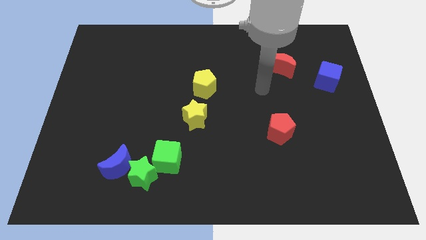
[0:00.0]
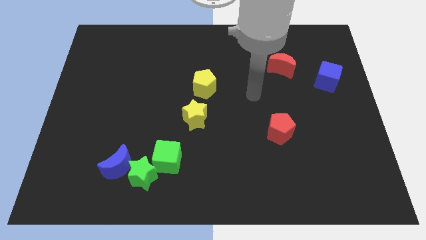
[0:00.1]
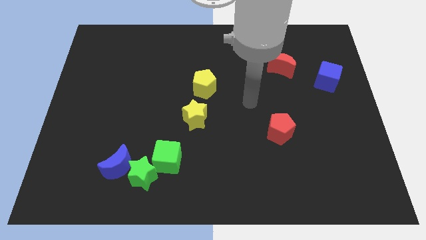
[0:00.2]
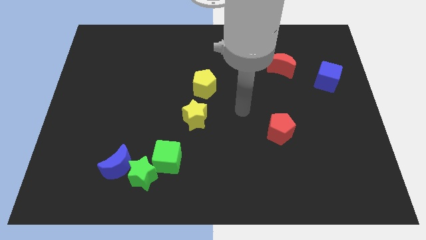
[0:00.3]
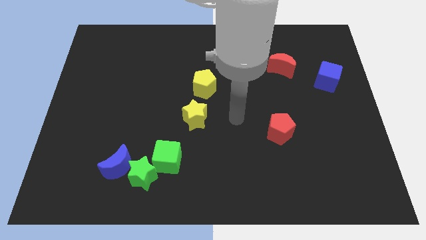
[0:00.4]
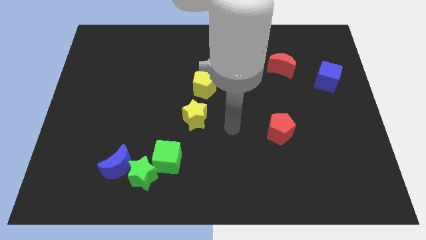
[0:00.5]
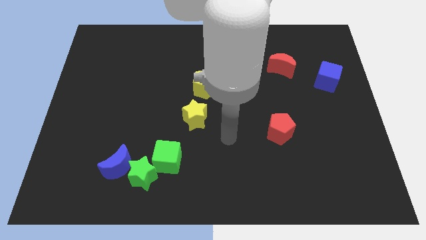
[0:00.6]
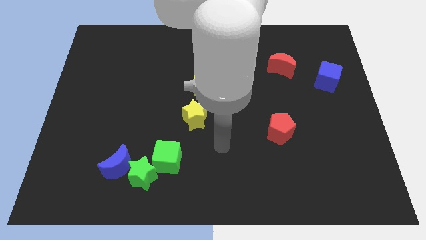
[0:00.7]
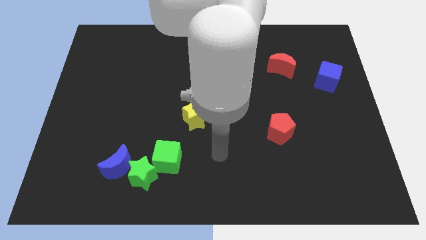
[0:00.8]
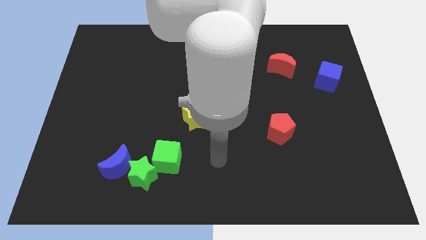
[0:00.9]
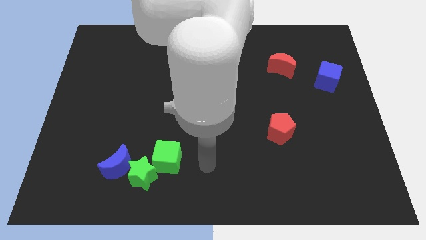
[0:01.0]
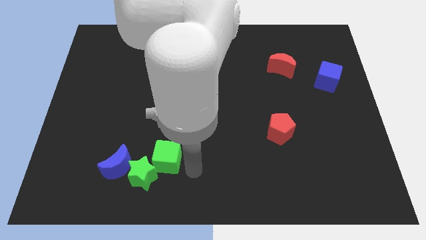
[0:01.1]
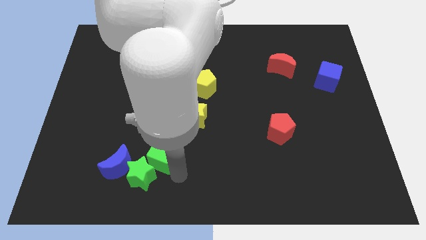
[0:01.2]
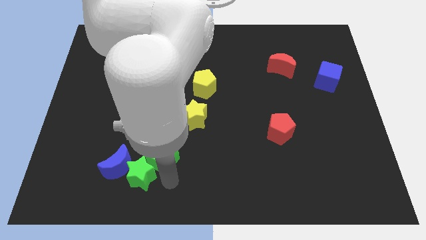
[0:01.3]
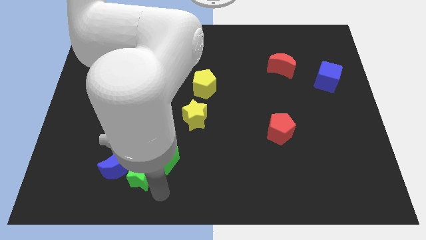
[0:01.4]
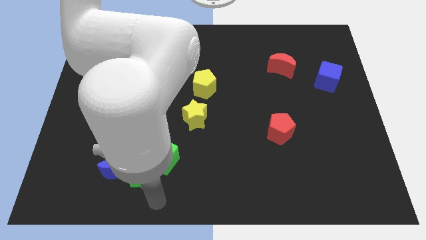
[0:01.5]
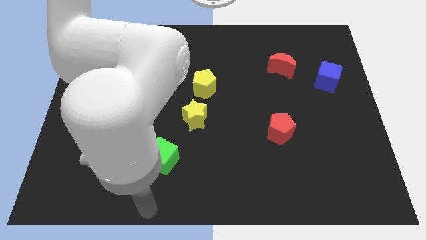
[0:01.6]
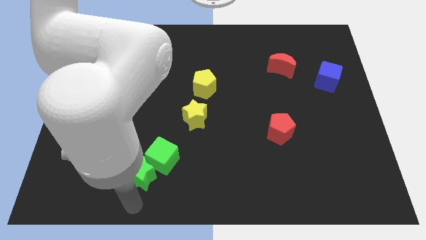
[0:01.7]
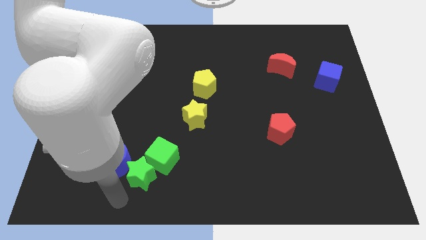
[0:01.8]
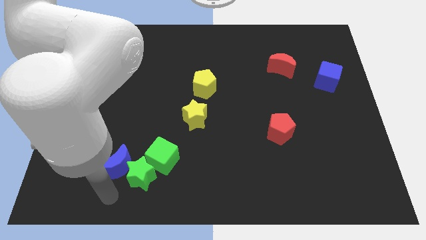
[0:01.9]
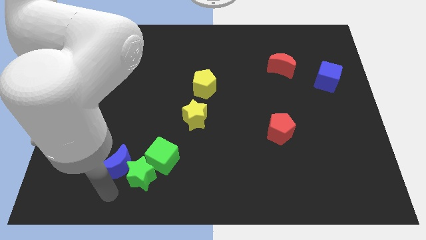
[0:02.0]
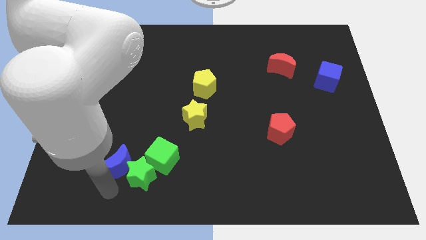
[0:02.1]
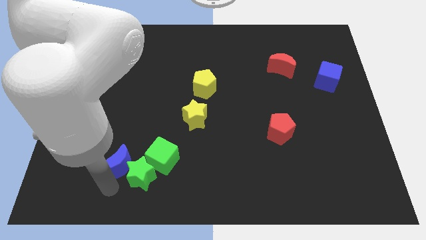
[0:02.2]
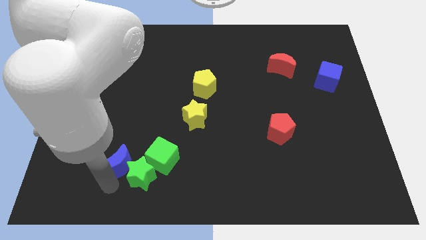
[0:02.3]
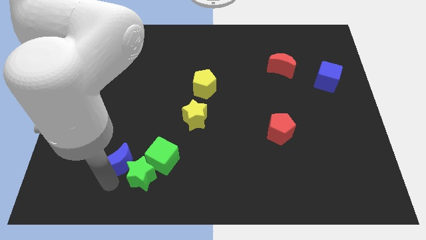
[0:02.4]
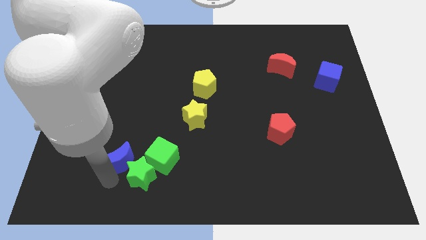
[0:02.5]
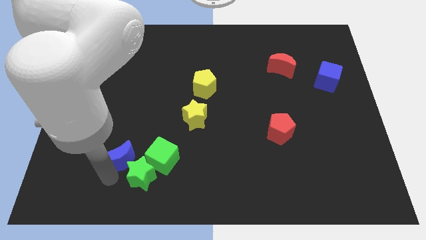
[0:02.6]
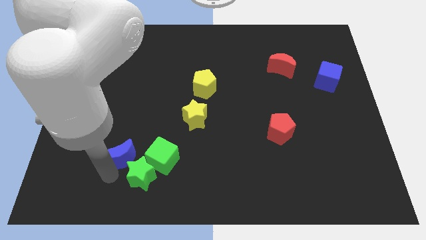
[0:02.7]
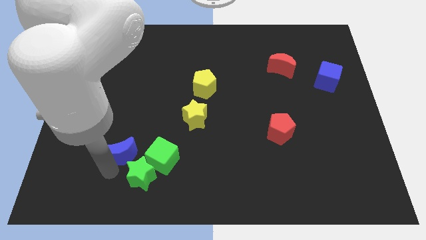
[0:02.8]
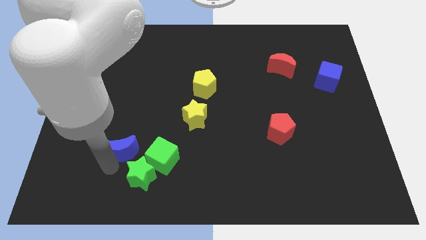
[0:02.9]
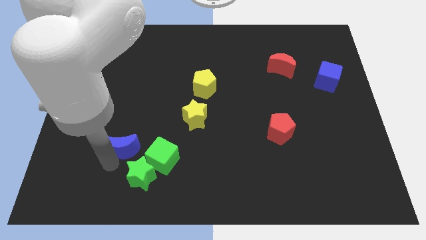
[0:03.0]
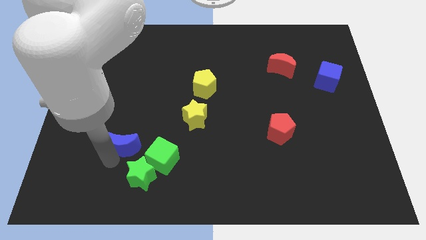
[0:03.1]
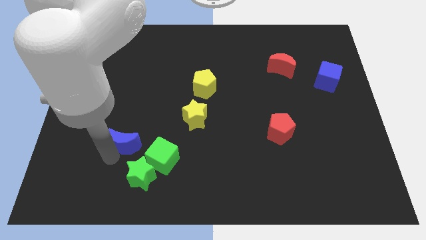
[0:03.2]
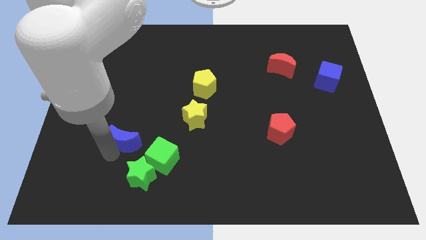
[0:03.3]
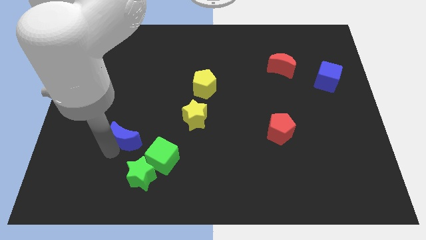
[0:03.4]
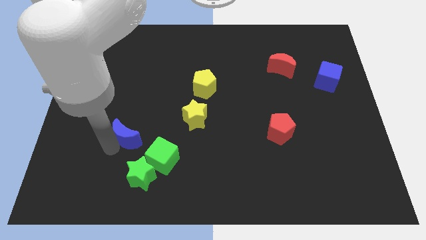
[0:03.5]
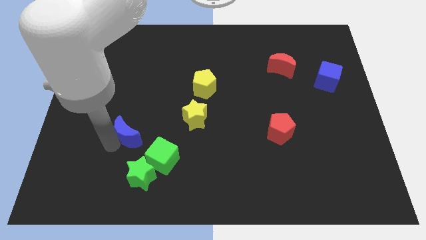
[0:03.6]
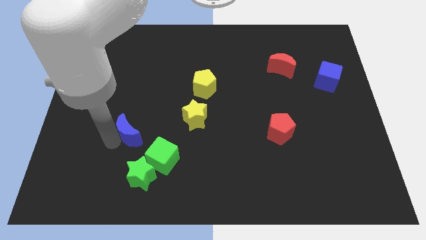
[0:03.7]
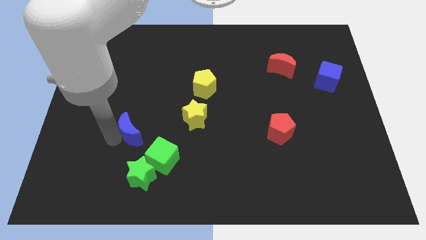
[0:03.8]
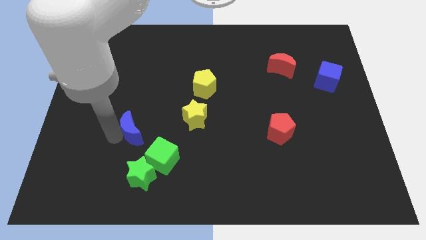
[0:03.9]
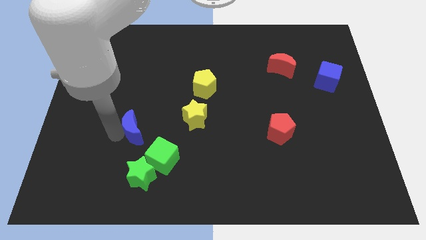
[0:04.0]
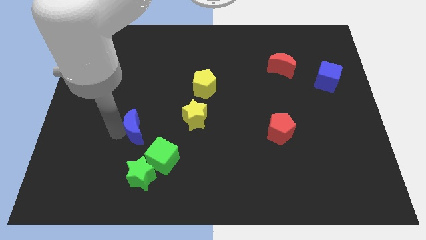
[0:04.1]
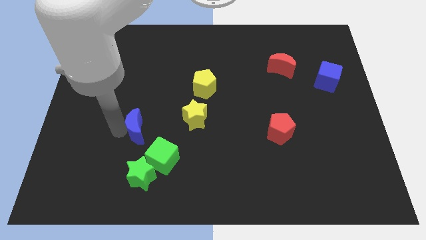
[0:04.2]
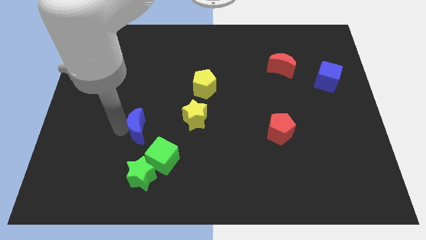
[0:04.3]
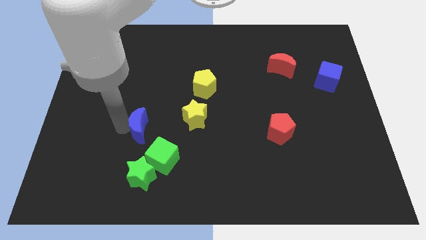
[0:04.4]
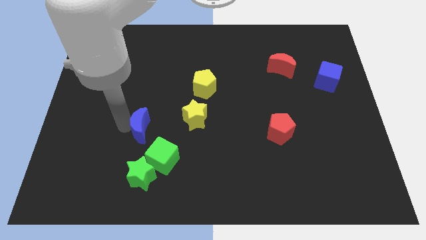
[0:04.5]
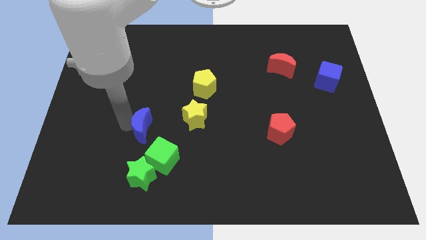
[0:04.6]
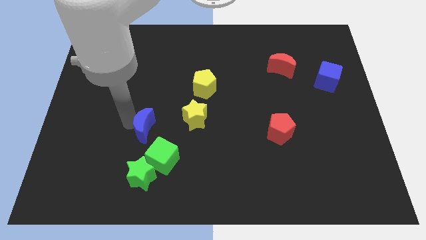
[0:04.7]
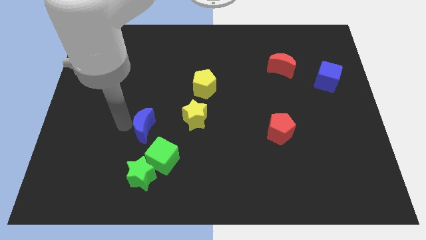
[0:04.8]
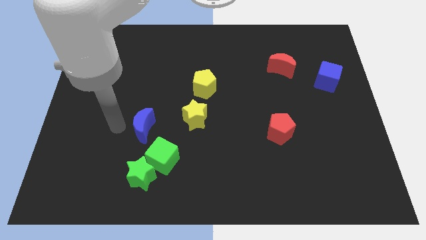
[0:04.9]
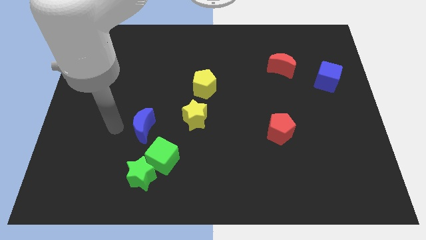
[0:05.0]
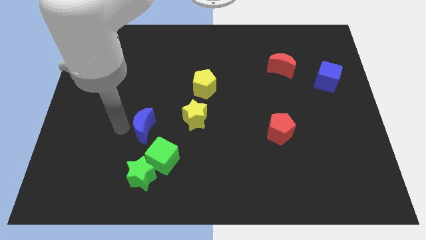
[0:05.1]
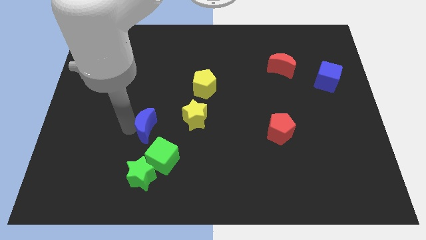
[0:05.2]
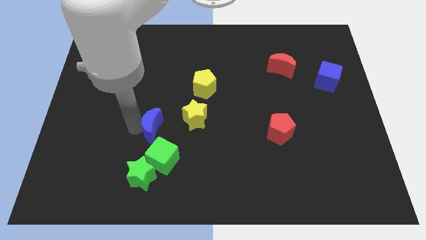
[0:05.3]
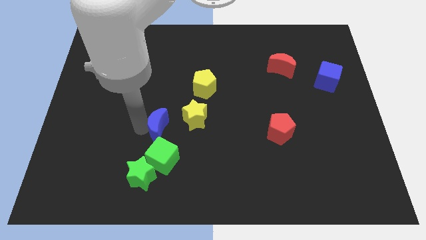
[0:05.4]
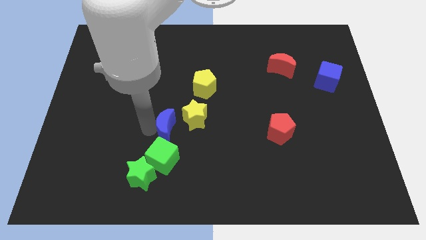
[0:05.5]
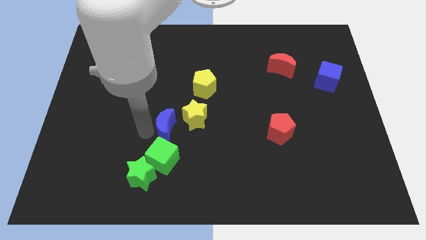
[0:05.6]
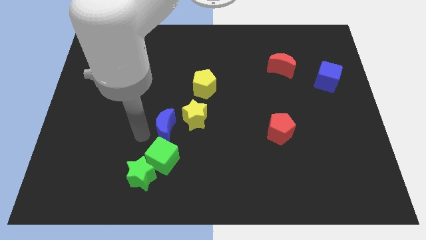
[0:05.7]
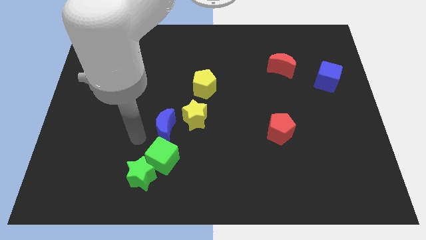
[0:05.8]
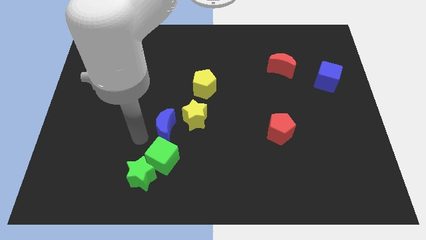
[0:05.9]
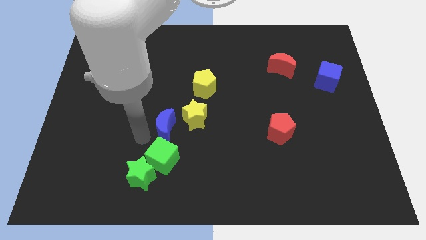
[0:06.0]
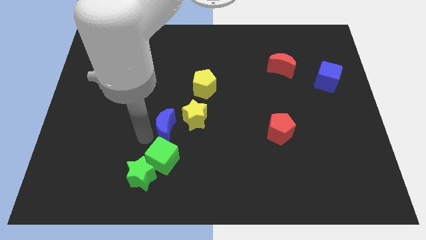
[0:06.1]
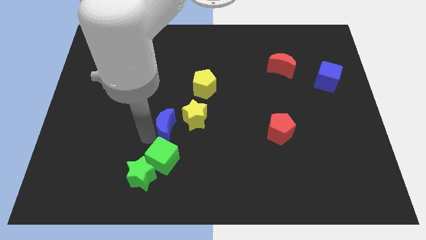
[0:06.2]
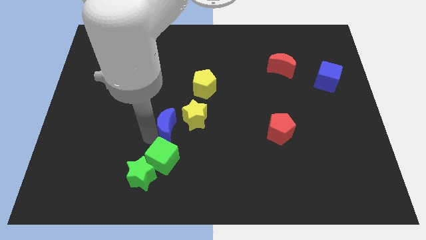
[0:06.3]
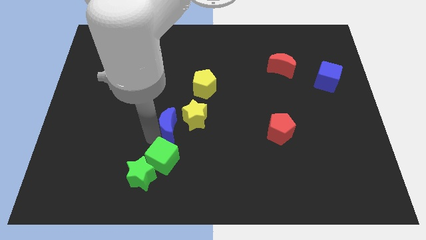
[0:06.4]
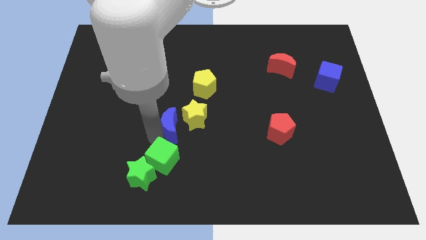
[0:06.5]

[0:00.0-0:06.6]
put the blue moon towards the yellow star
